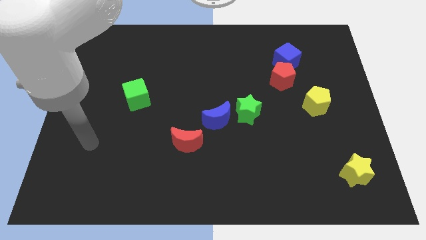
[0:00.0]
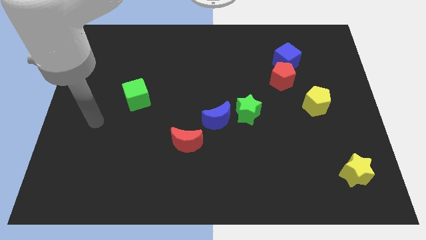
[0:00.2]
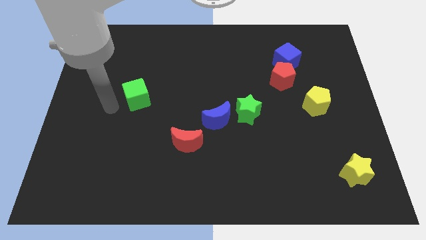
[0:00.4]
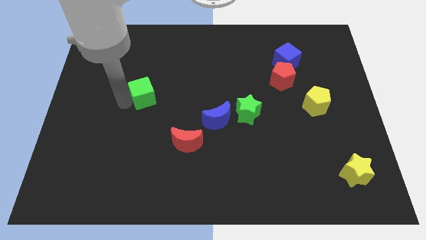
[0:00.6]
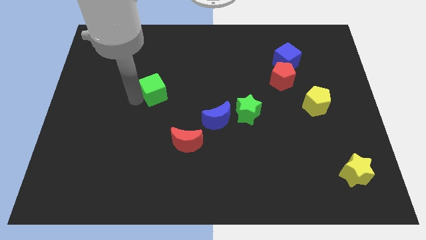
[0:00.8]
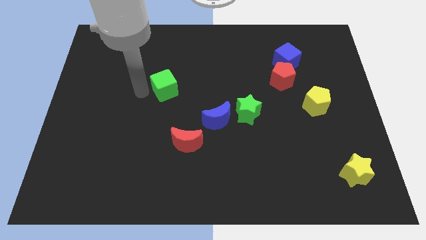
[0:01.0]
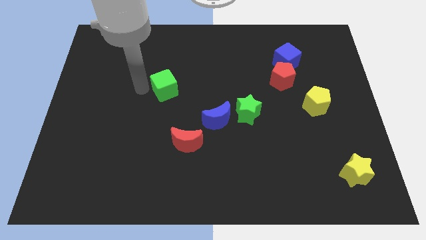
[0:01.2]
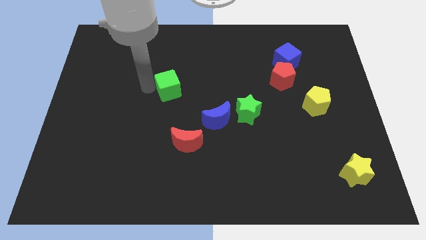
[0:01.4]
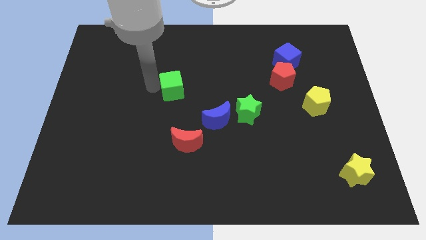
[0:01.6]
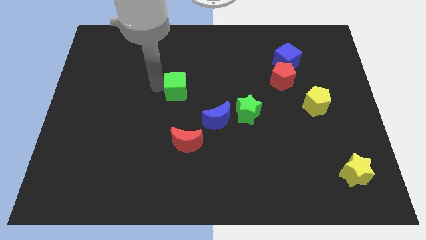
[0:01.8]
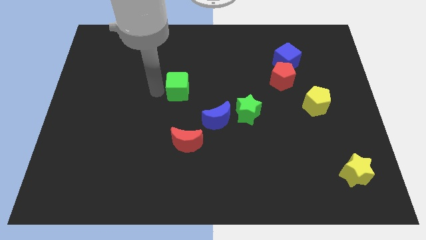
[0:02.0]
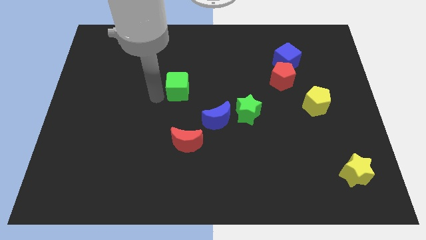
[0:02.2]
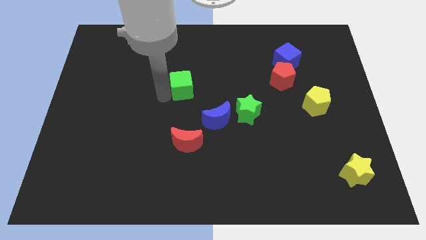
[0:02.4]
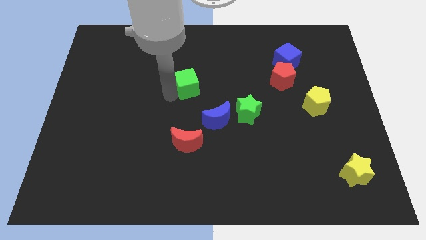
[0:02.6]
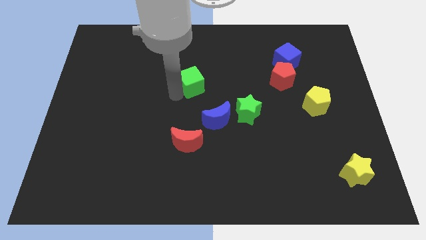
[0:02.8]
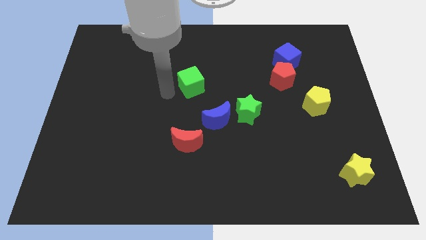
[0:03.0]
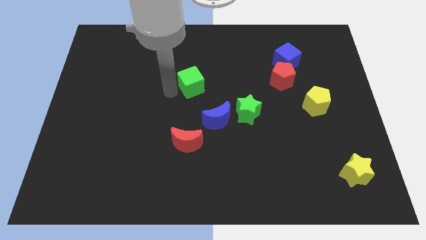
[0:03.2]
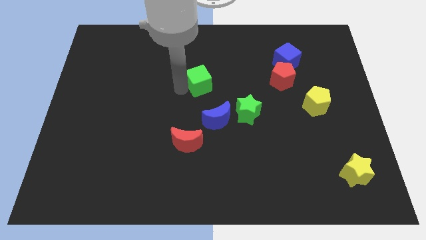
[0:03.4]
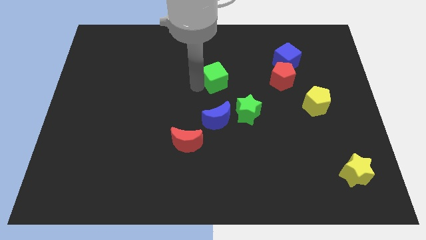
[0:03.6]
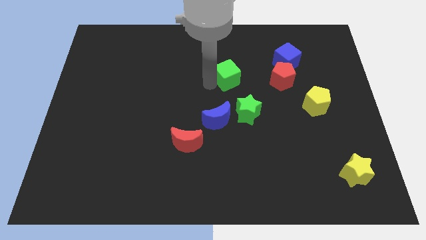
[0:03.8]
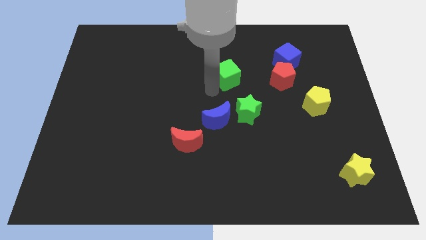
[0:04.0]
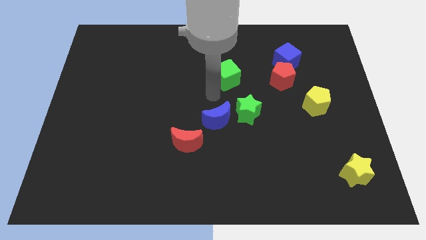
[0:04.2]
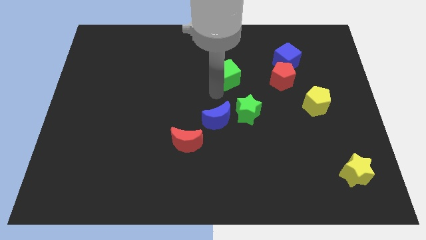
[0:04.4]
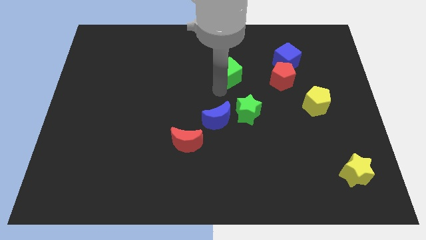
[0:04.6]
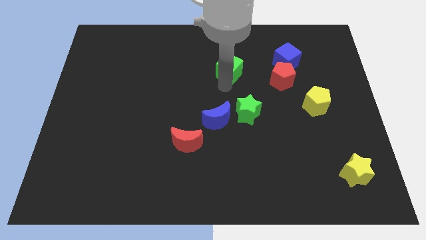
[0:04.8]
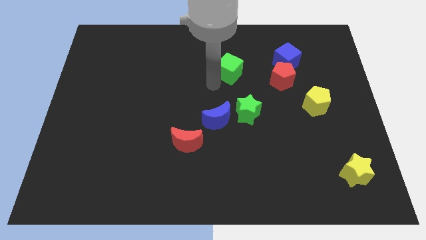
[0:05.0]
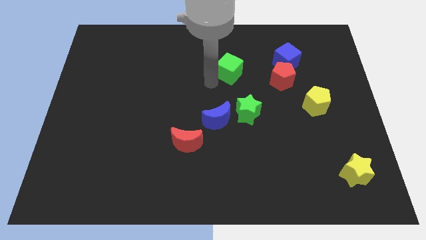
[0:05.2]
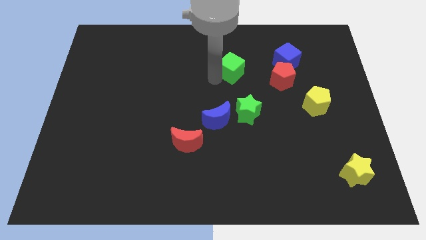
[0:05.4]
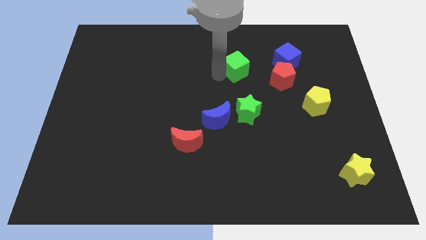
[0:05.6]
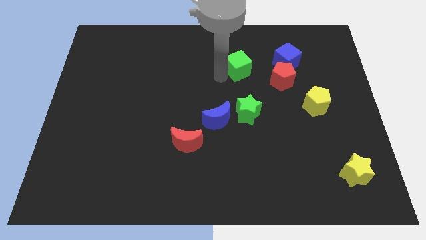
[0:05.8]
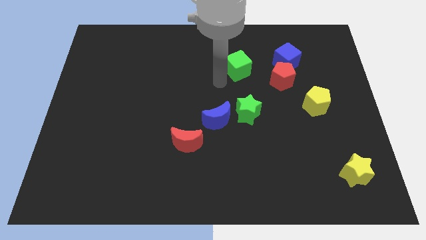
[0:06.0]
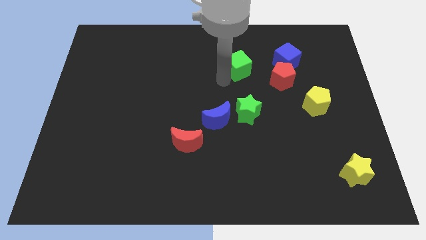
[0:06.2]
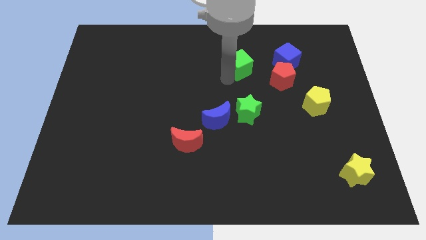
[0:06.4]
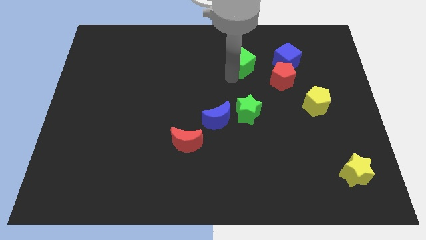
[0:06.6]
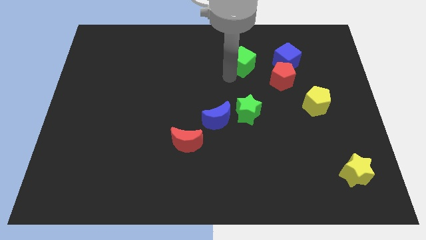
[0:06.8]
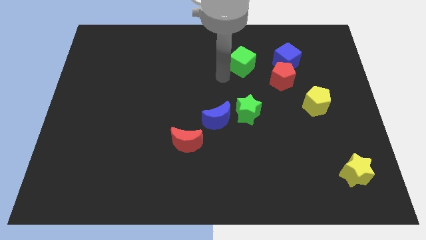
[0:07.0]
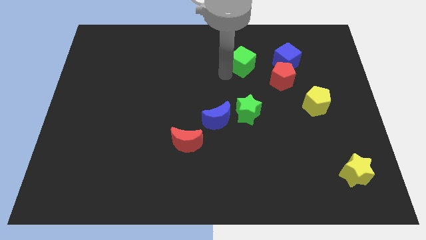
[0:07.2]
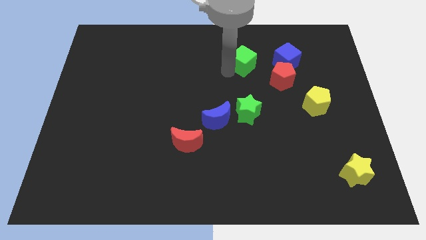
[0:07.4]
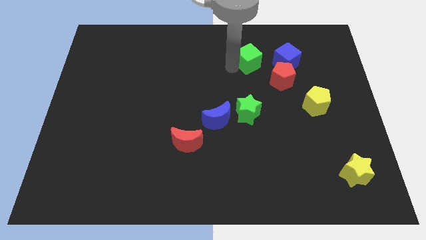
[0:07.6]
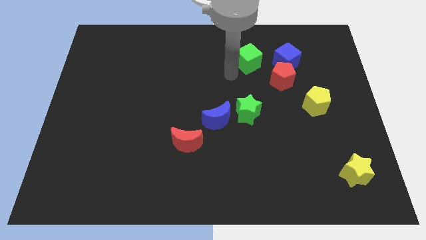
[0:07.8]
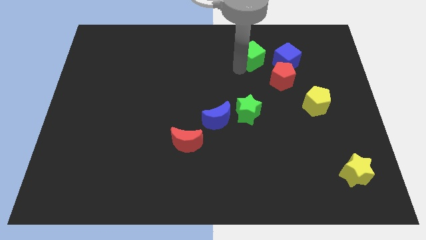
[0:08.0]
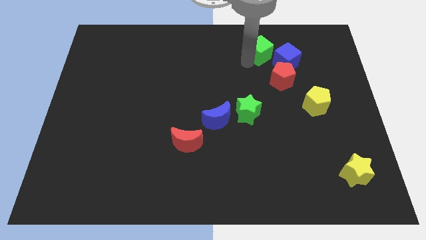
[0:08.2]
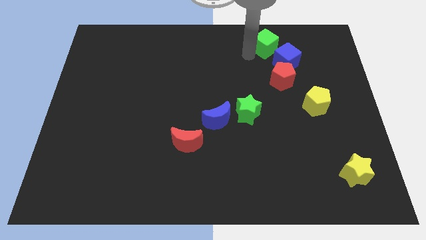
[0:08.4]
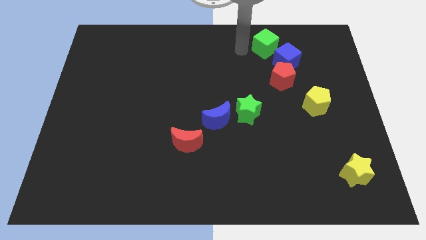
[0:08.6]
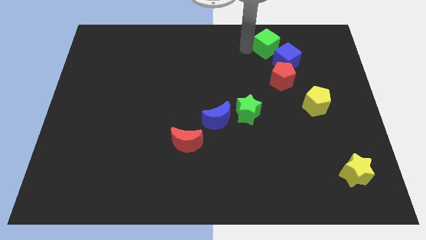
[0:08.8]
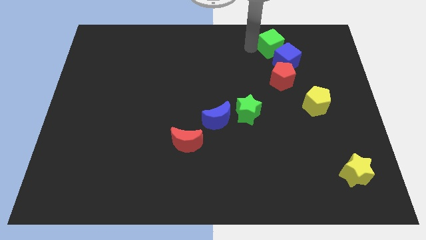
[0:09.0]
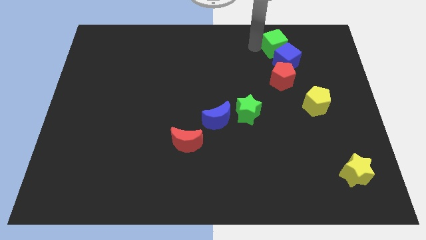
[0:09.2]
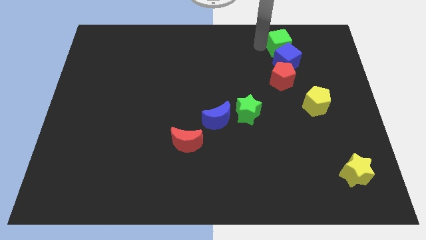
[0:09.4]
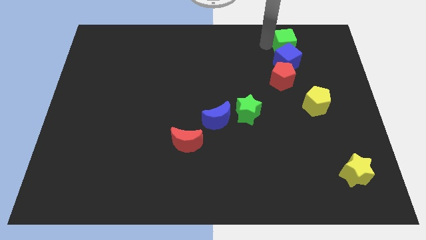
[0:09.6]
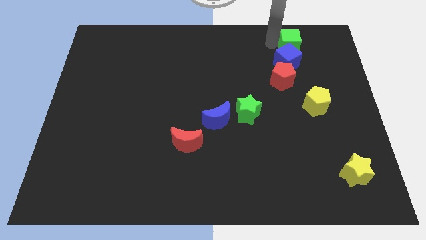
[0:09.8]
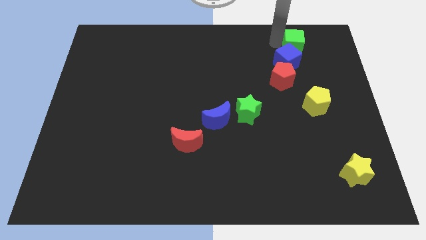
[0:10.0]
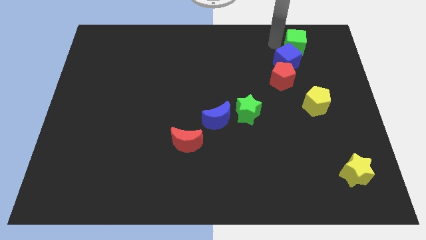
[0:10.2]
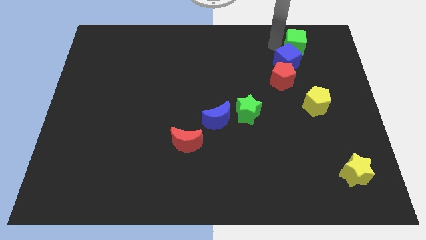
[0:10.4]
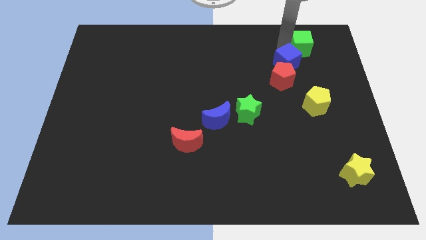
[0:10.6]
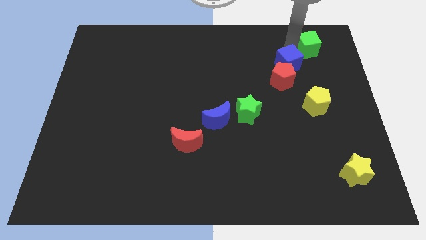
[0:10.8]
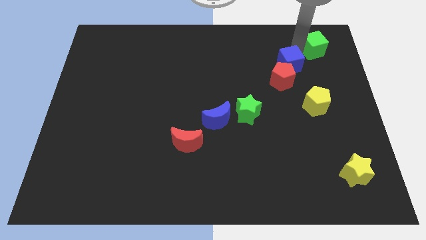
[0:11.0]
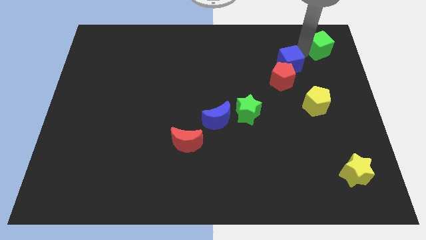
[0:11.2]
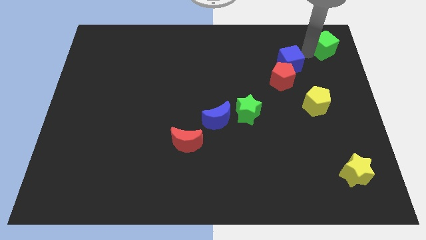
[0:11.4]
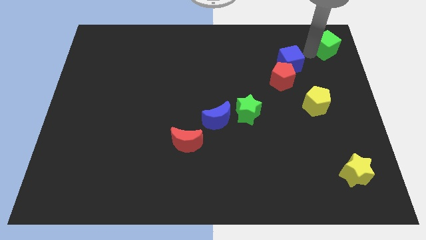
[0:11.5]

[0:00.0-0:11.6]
put the green cube to the top right of the board
